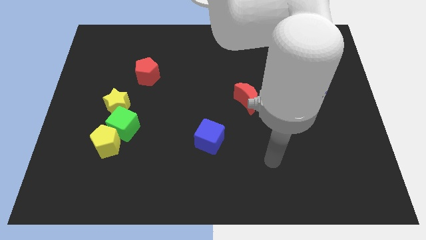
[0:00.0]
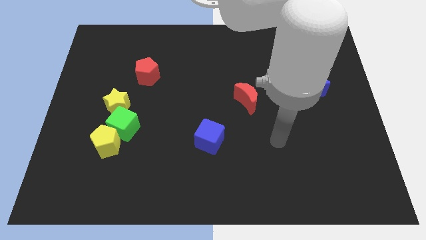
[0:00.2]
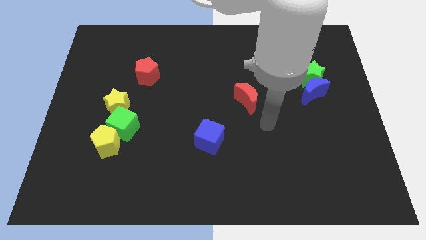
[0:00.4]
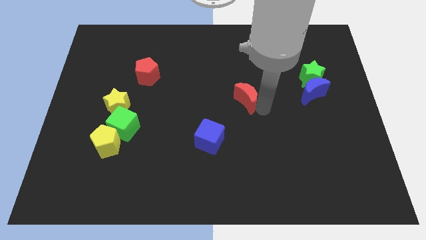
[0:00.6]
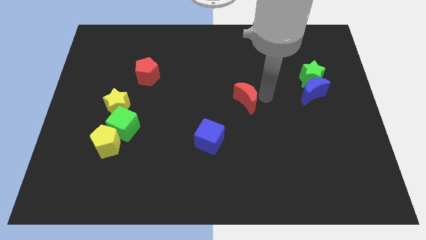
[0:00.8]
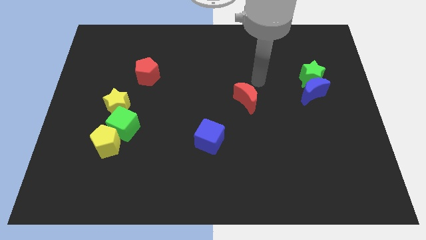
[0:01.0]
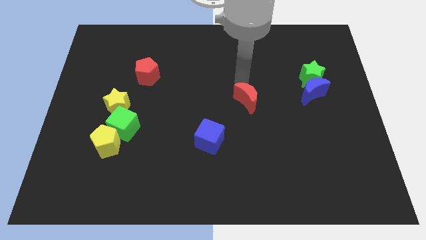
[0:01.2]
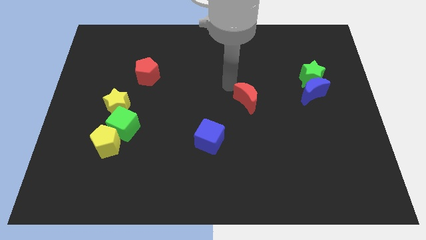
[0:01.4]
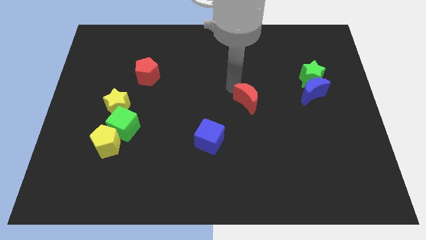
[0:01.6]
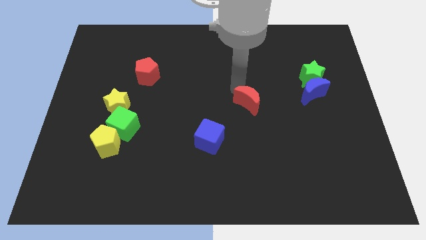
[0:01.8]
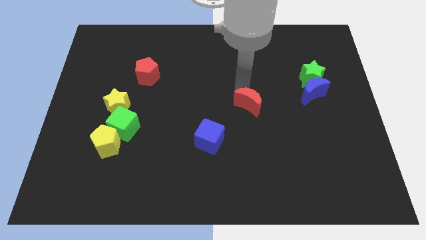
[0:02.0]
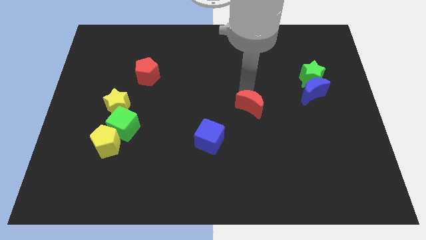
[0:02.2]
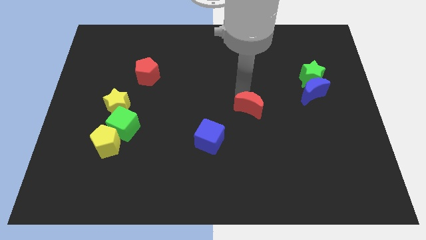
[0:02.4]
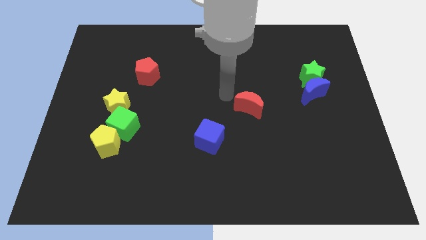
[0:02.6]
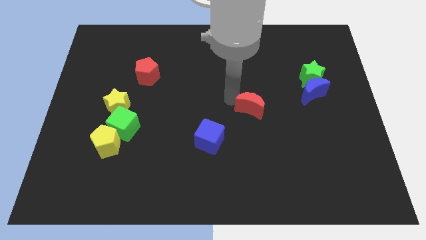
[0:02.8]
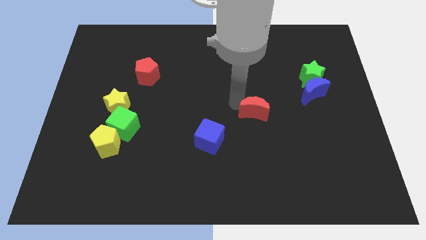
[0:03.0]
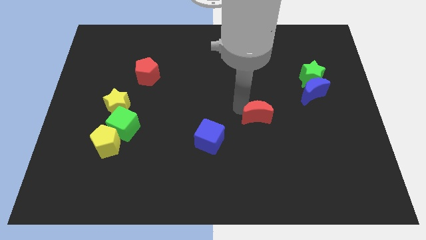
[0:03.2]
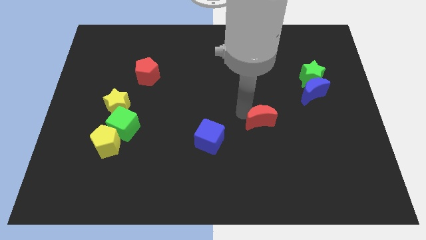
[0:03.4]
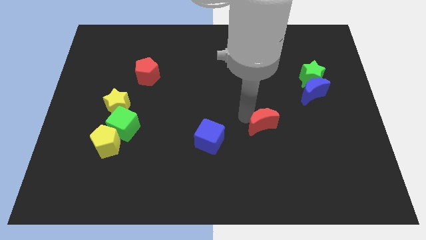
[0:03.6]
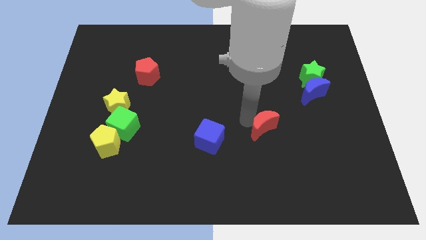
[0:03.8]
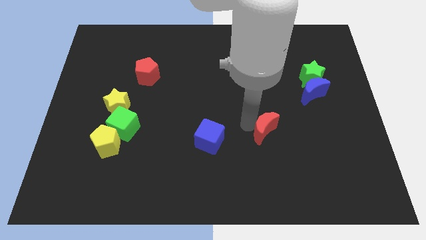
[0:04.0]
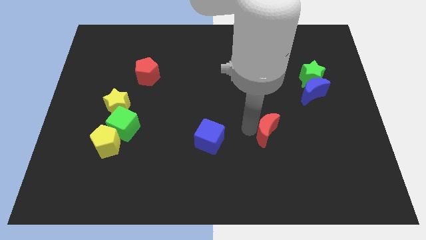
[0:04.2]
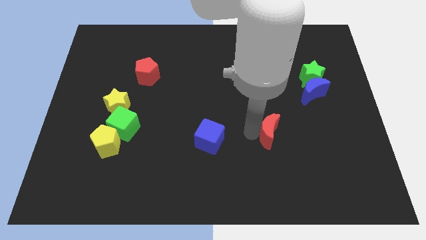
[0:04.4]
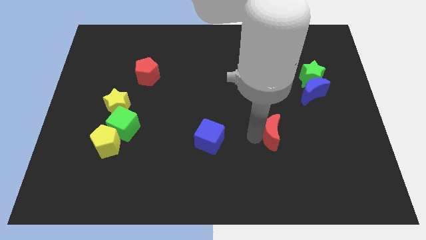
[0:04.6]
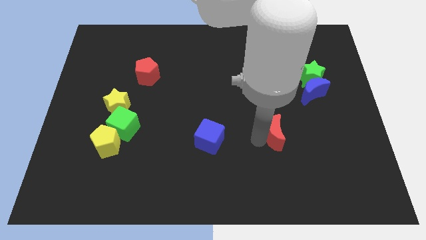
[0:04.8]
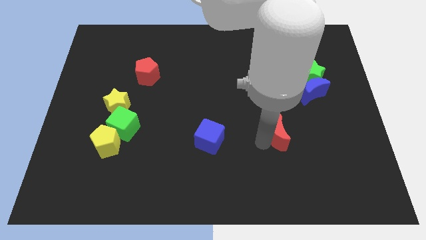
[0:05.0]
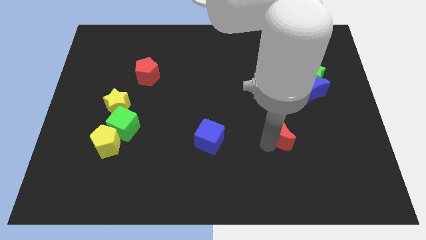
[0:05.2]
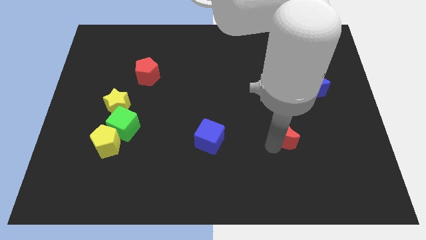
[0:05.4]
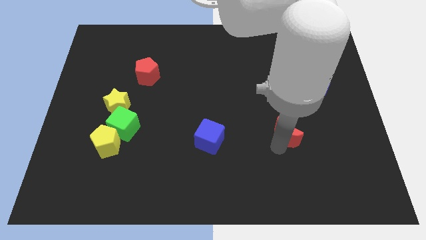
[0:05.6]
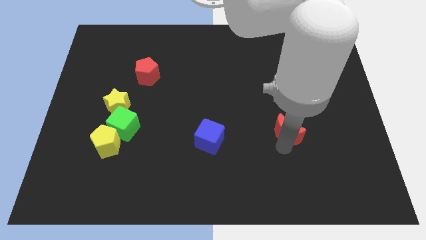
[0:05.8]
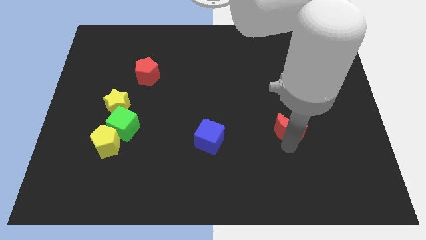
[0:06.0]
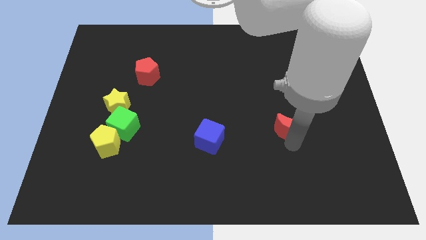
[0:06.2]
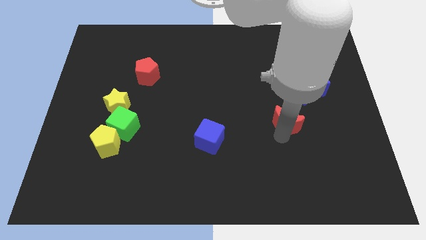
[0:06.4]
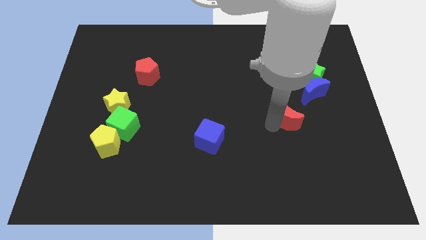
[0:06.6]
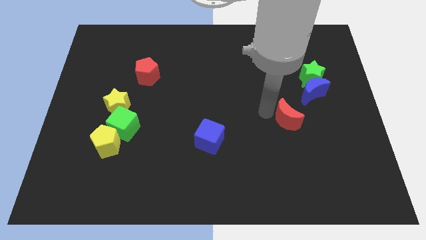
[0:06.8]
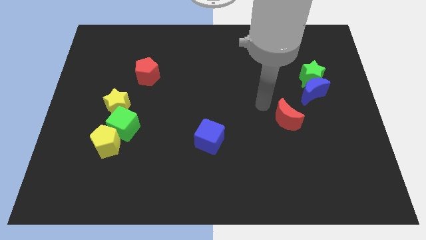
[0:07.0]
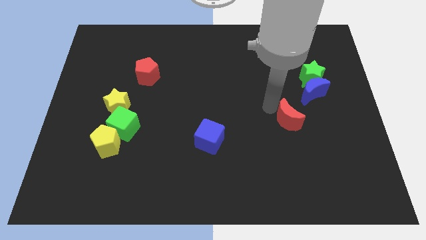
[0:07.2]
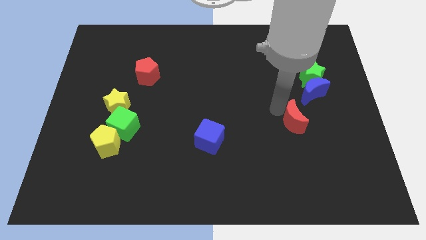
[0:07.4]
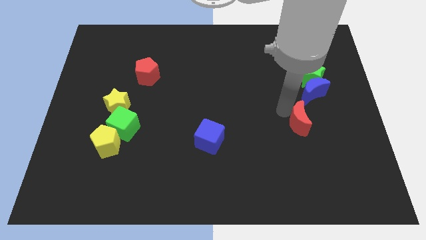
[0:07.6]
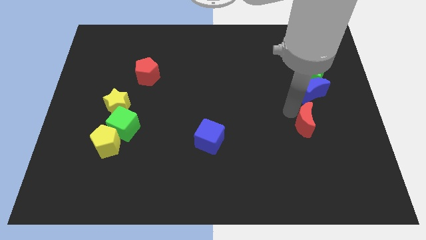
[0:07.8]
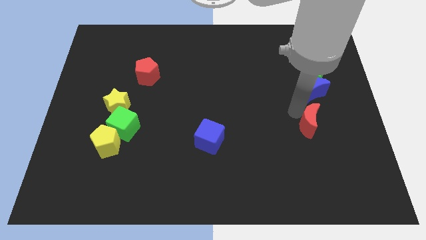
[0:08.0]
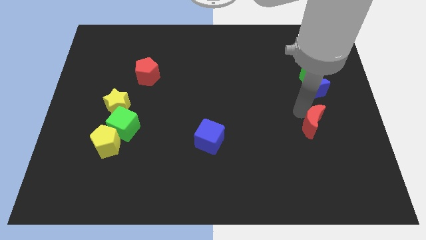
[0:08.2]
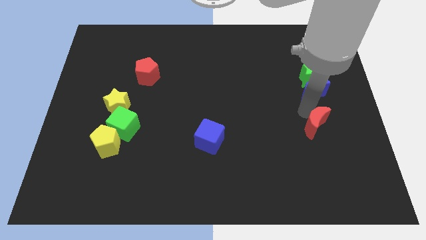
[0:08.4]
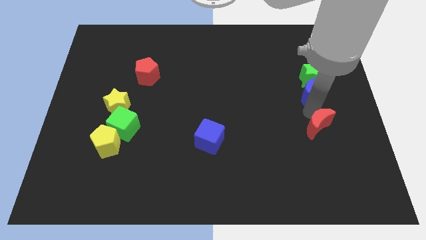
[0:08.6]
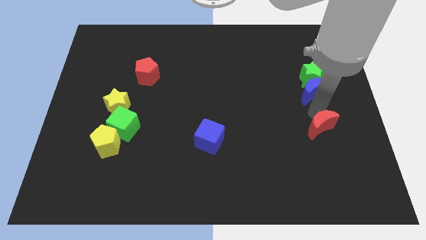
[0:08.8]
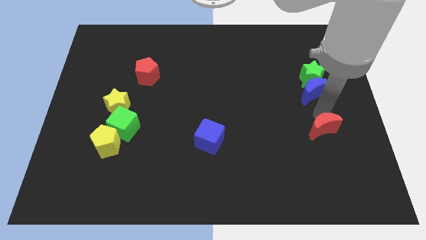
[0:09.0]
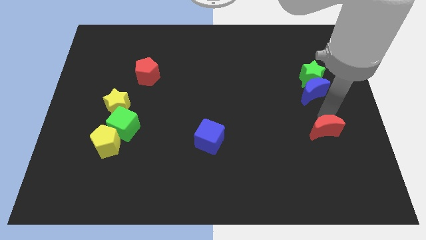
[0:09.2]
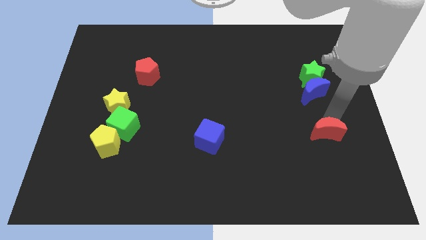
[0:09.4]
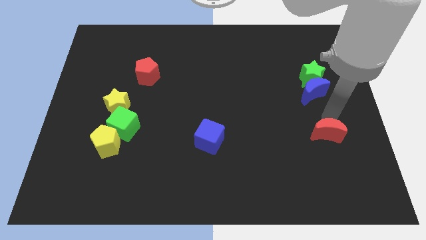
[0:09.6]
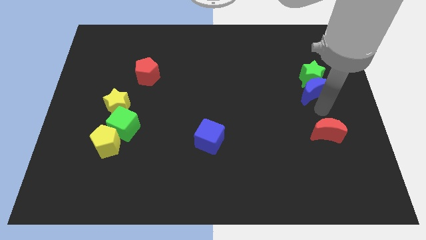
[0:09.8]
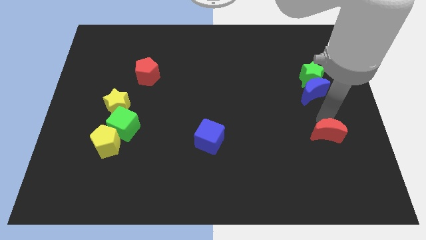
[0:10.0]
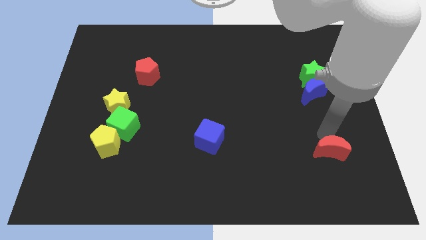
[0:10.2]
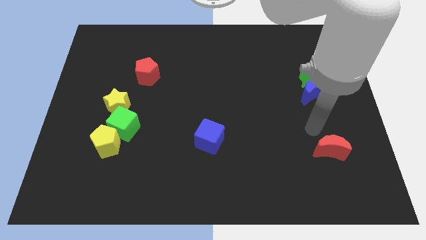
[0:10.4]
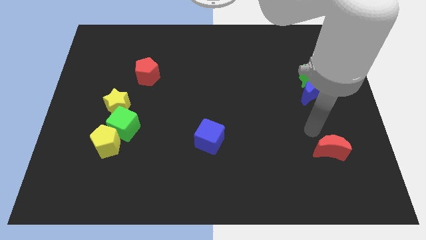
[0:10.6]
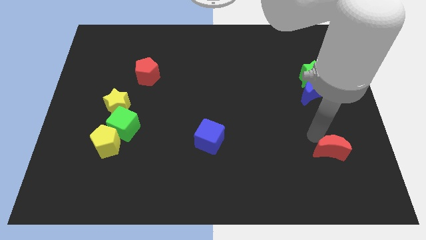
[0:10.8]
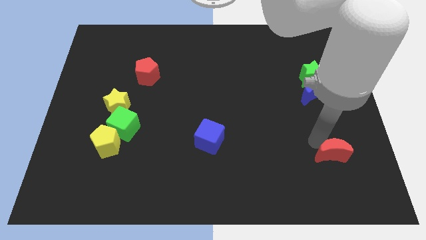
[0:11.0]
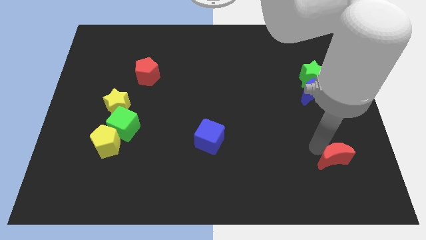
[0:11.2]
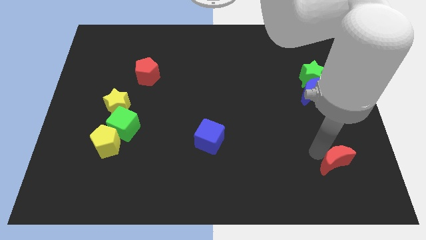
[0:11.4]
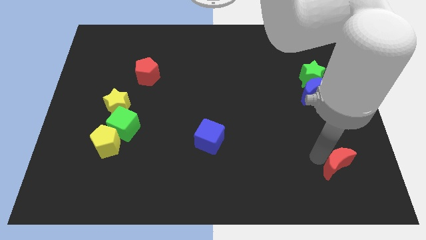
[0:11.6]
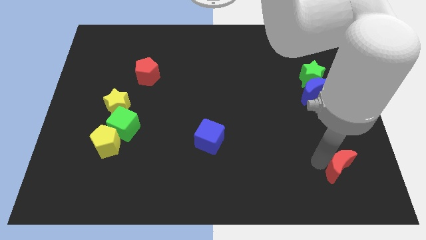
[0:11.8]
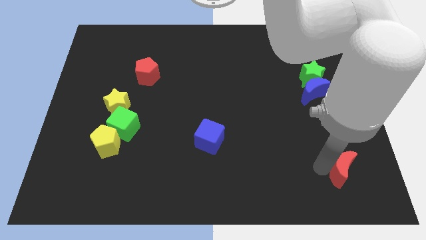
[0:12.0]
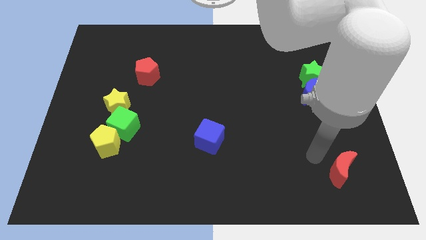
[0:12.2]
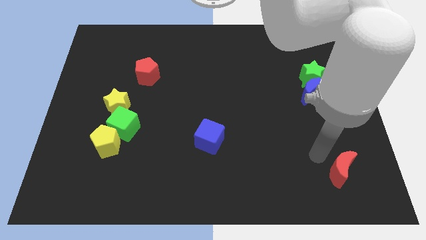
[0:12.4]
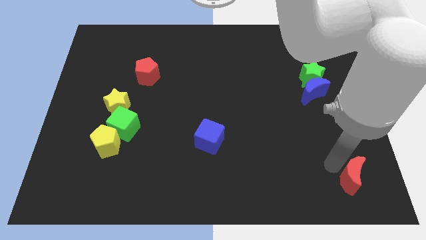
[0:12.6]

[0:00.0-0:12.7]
move the red moon to the bottom right corner
